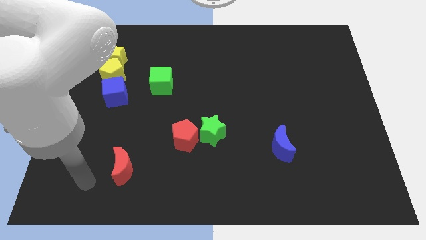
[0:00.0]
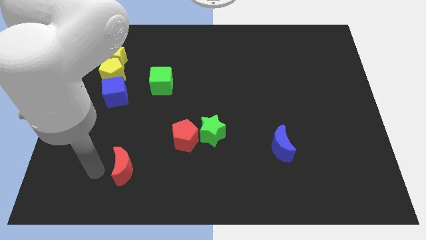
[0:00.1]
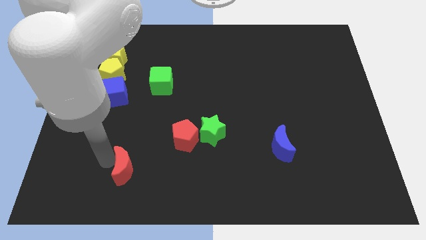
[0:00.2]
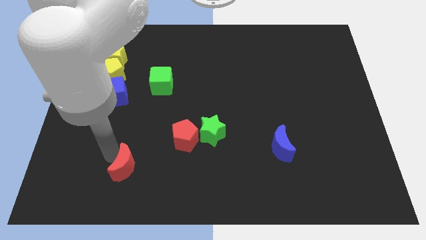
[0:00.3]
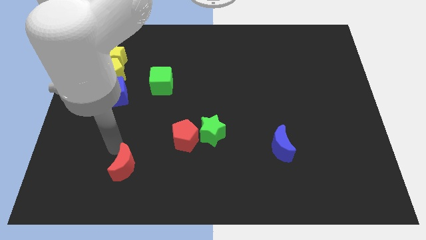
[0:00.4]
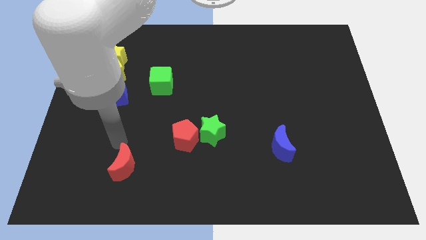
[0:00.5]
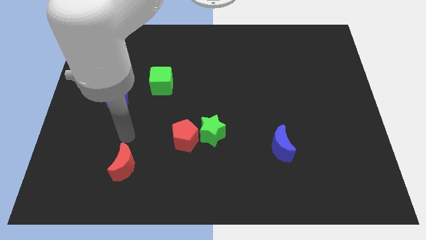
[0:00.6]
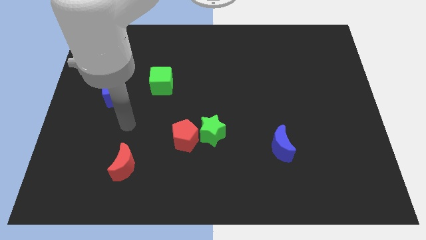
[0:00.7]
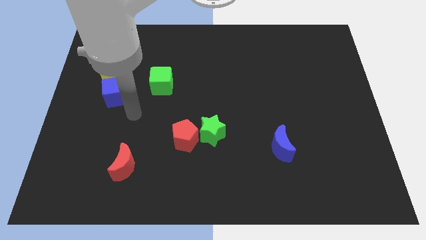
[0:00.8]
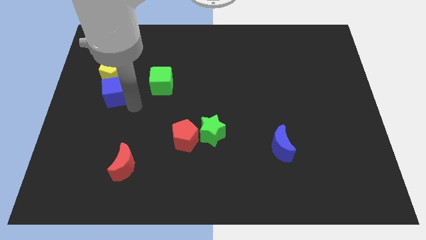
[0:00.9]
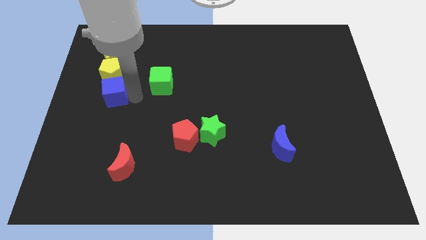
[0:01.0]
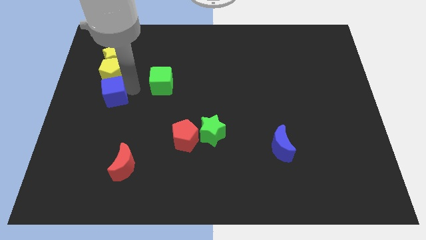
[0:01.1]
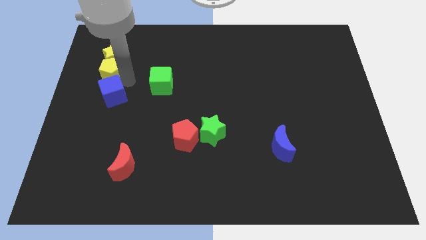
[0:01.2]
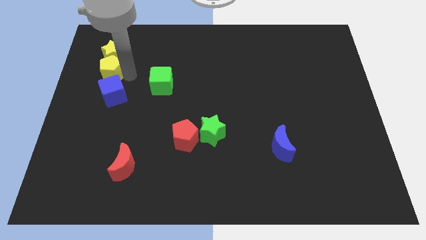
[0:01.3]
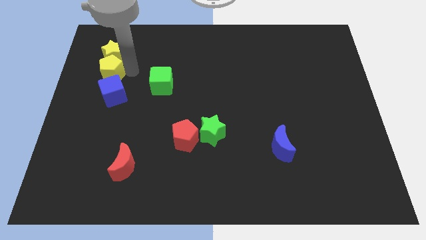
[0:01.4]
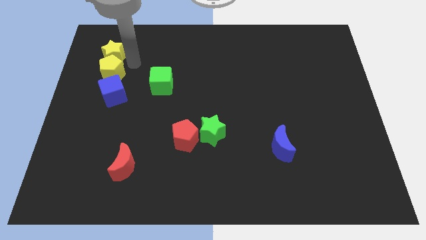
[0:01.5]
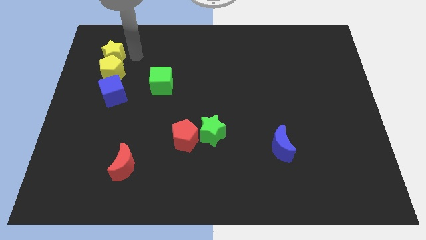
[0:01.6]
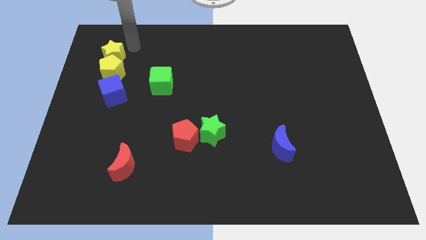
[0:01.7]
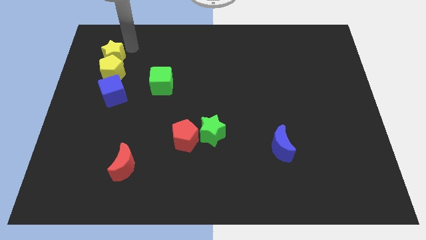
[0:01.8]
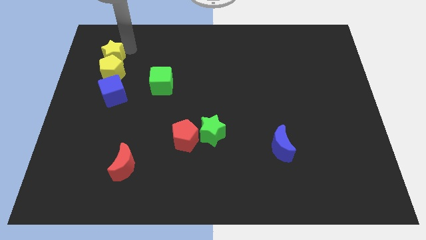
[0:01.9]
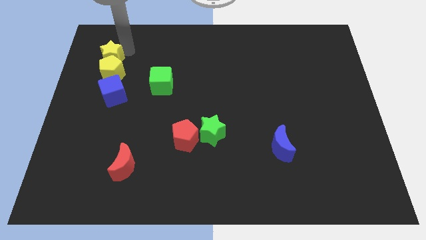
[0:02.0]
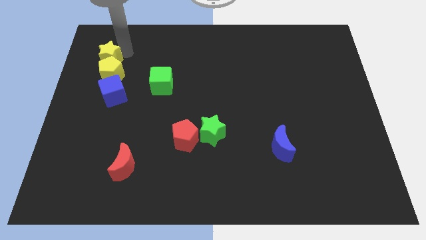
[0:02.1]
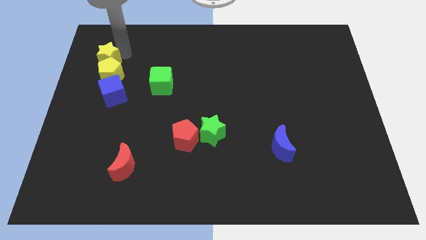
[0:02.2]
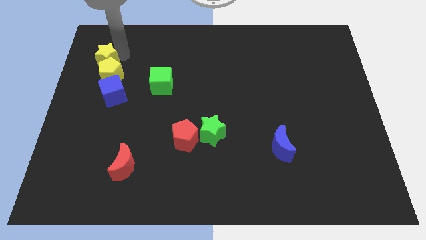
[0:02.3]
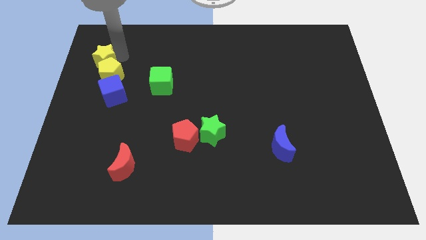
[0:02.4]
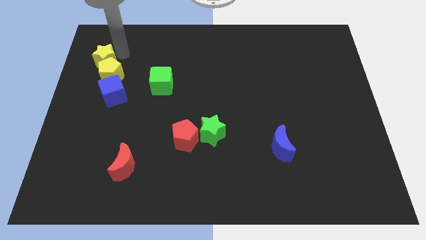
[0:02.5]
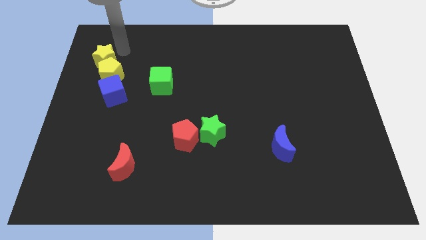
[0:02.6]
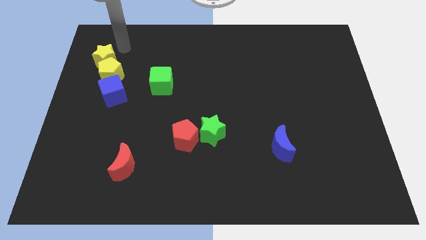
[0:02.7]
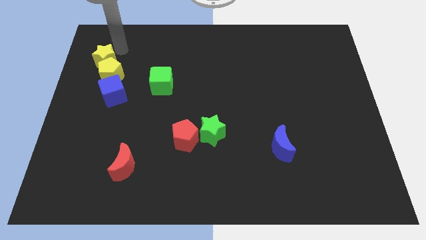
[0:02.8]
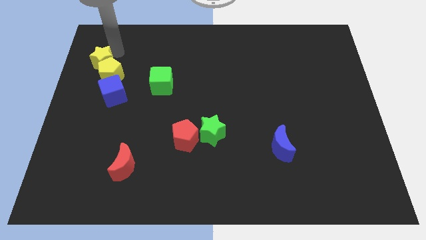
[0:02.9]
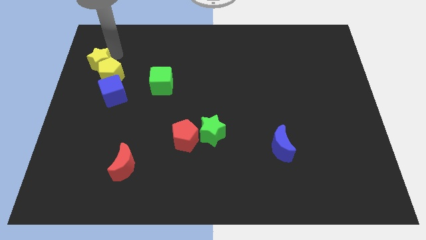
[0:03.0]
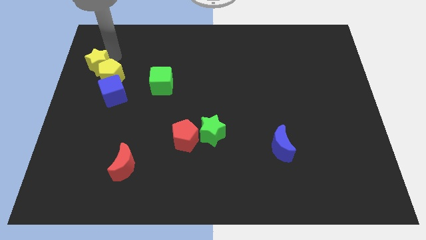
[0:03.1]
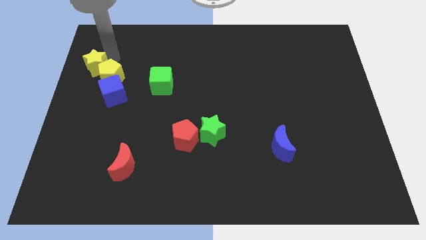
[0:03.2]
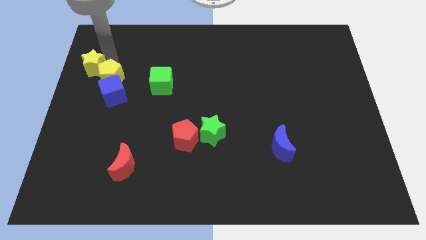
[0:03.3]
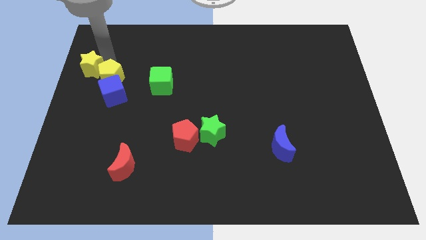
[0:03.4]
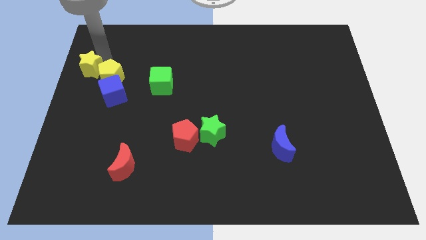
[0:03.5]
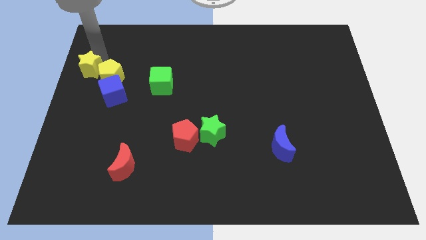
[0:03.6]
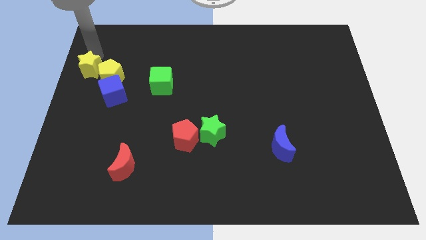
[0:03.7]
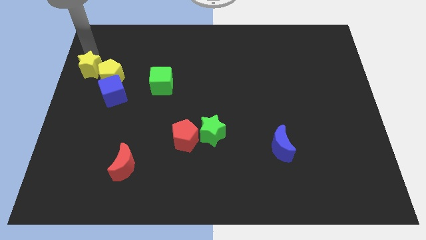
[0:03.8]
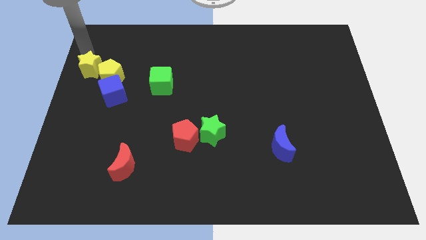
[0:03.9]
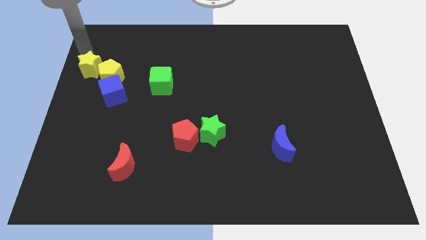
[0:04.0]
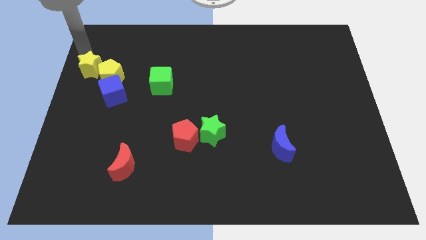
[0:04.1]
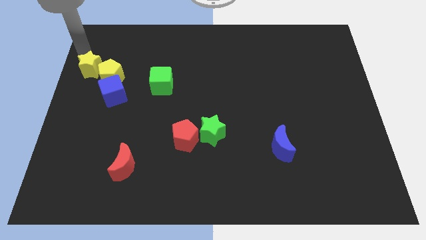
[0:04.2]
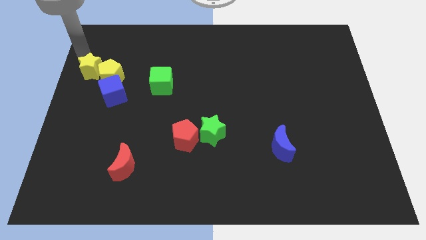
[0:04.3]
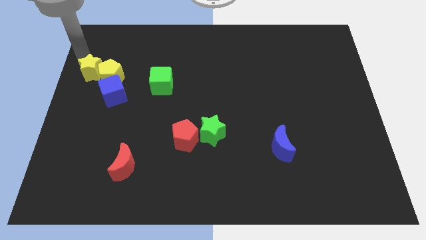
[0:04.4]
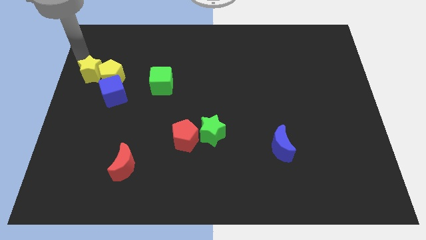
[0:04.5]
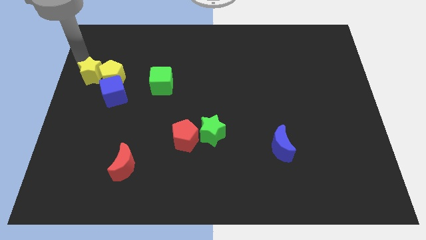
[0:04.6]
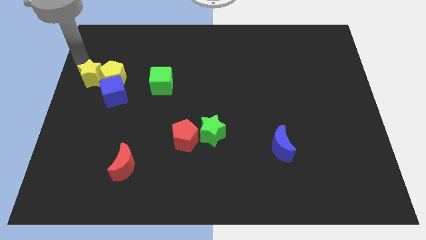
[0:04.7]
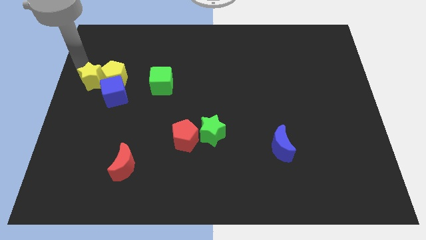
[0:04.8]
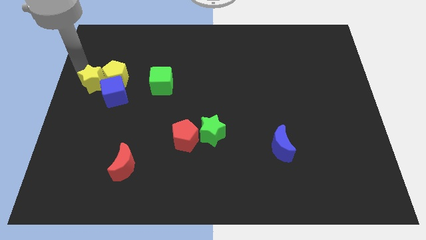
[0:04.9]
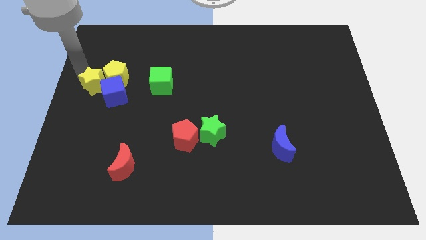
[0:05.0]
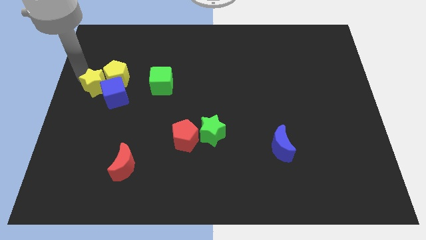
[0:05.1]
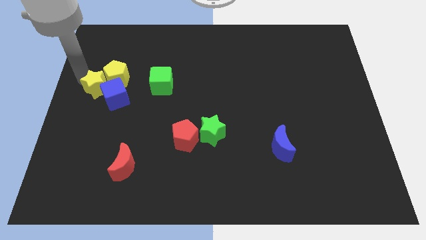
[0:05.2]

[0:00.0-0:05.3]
move the yellow star next to the blue cube

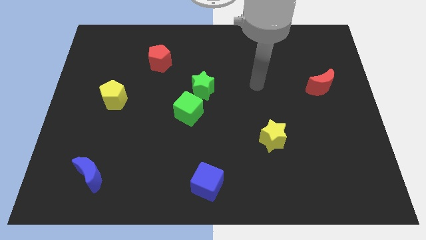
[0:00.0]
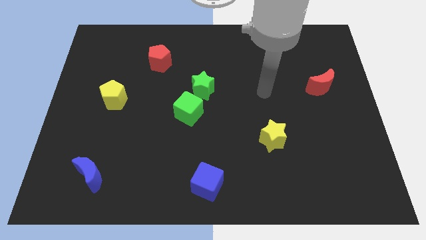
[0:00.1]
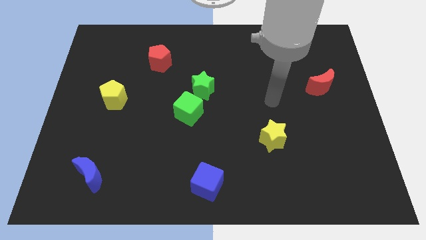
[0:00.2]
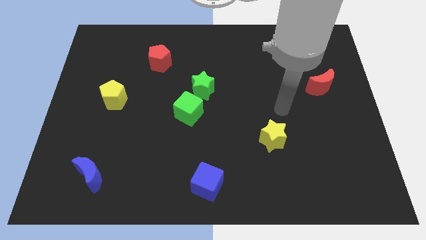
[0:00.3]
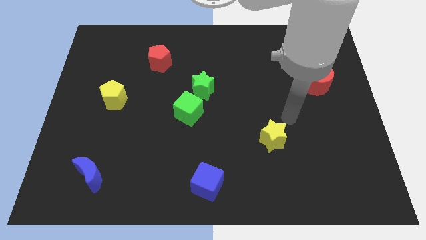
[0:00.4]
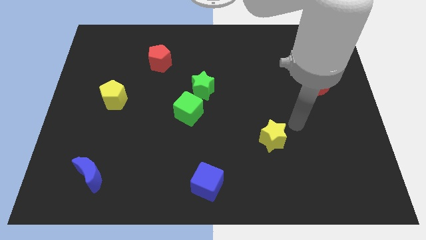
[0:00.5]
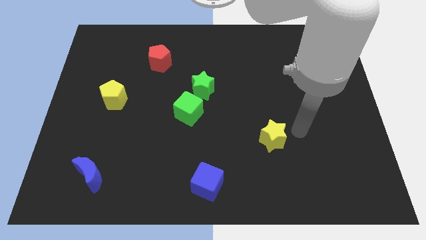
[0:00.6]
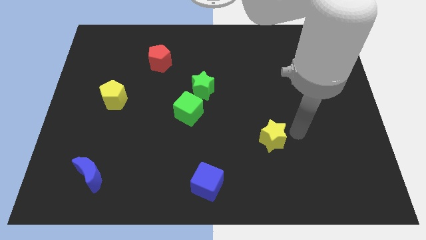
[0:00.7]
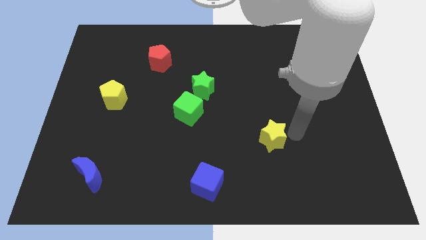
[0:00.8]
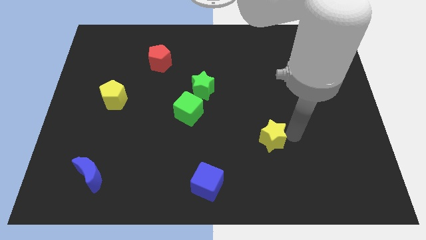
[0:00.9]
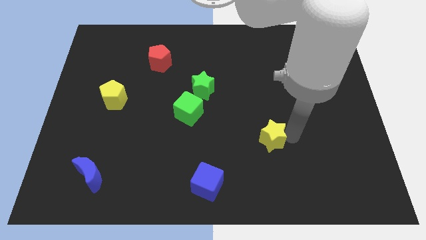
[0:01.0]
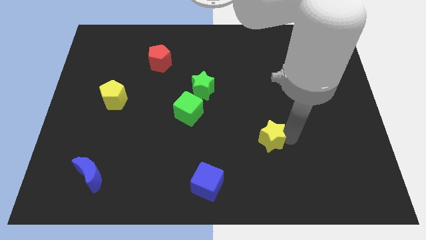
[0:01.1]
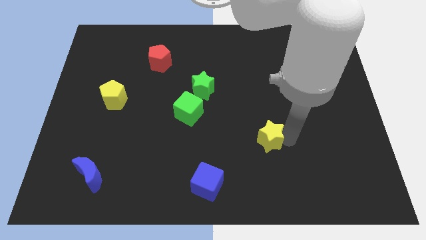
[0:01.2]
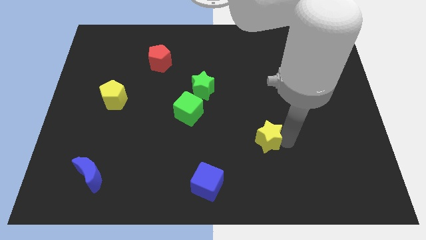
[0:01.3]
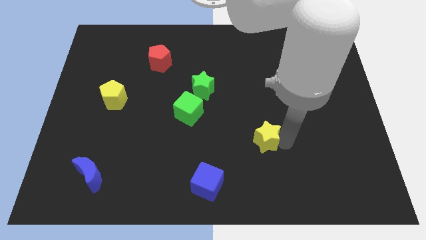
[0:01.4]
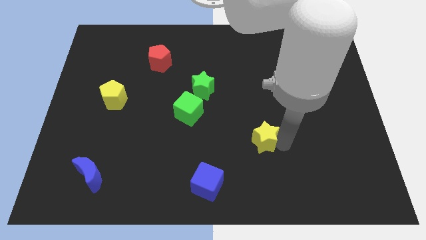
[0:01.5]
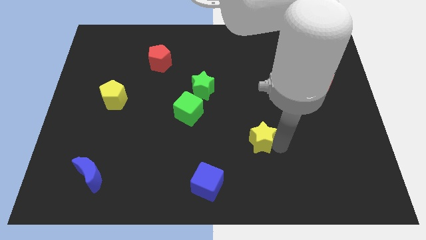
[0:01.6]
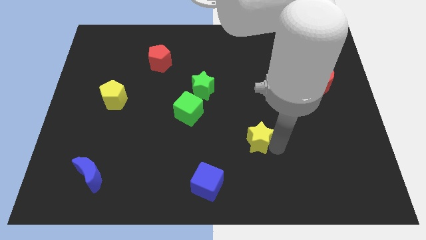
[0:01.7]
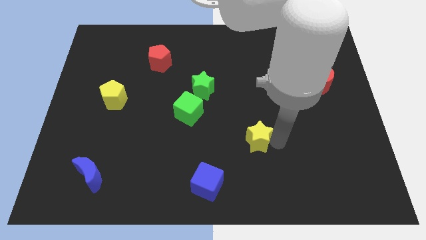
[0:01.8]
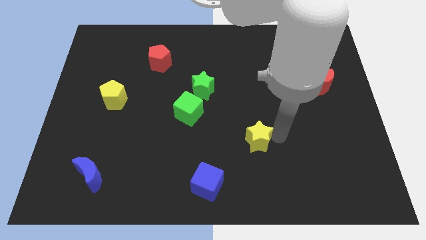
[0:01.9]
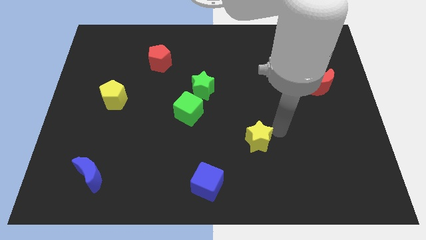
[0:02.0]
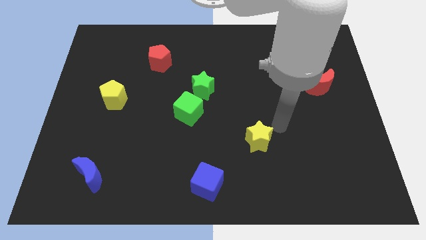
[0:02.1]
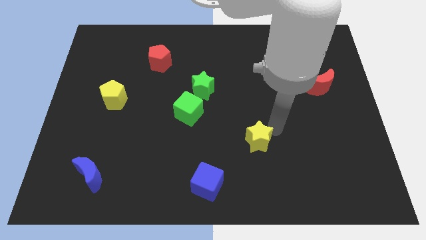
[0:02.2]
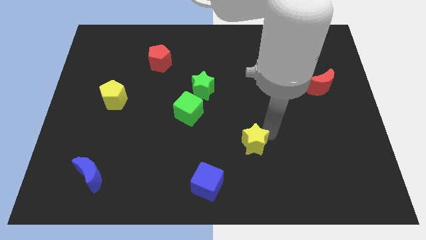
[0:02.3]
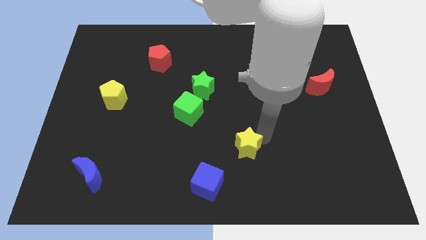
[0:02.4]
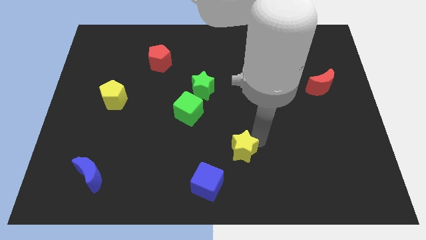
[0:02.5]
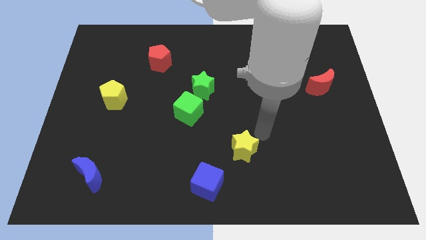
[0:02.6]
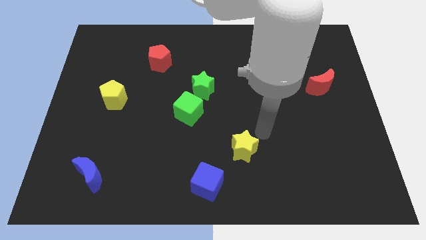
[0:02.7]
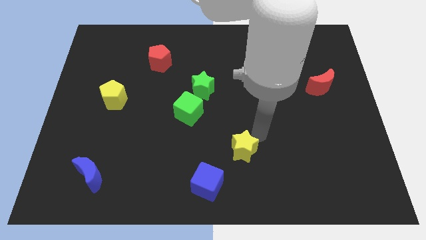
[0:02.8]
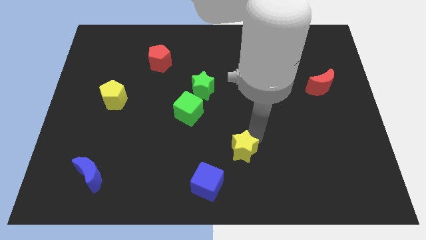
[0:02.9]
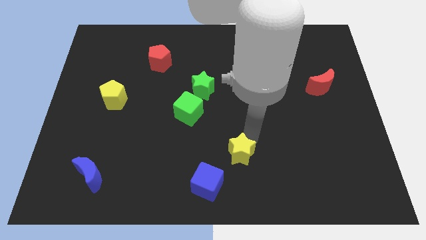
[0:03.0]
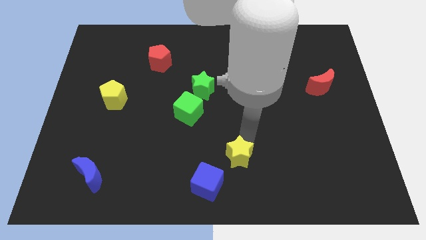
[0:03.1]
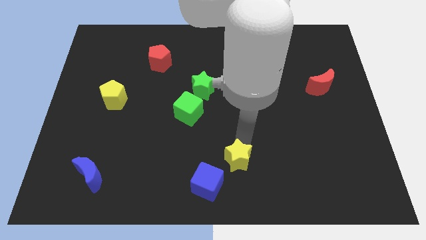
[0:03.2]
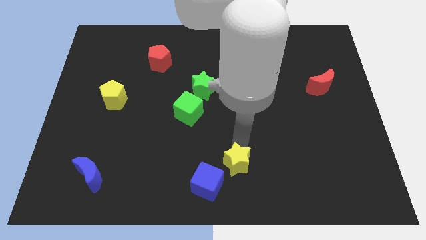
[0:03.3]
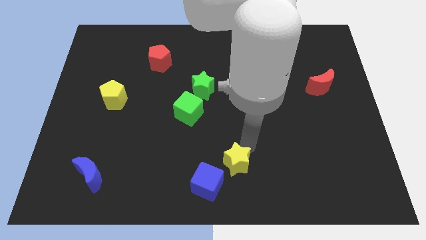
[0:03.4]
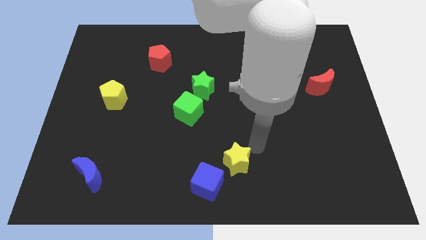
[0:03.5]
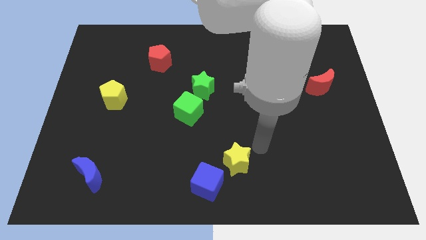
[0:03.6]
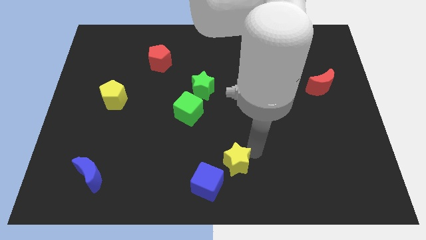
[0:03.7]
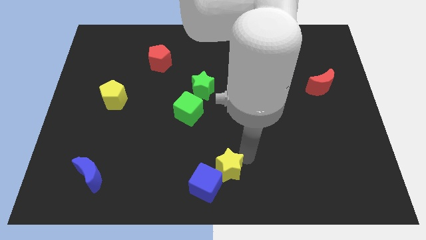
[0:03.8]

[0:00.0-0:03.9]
move the yellow star close to the blue cube
